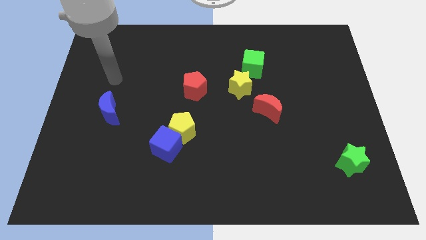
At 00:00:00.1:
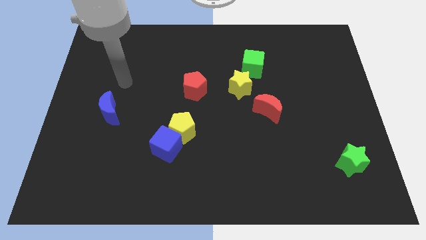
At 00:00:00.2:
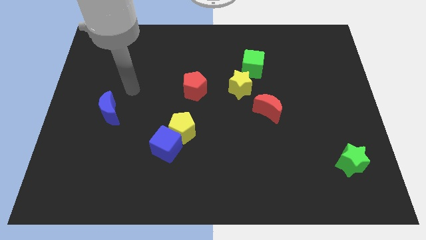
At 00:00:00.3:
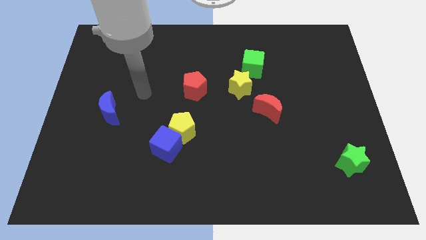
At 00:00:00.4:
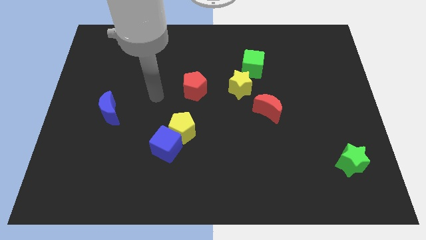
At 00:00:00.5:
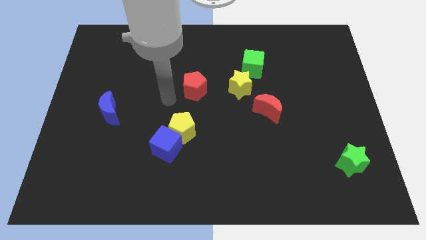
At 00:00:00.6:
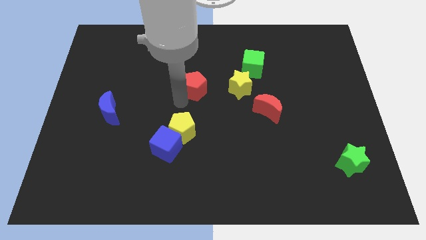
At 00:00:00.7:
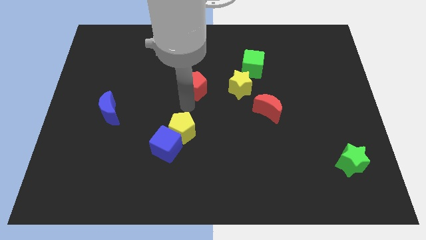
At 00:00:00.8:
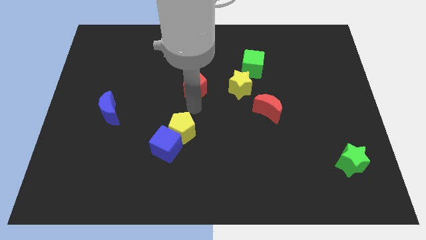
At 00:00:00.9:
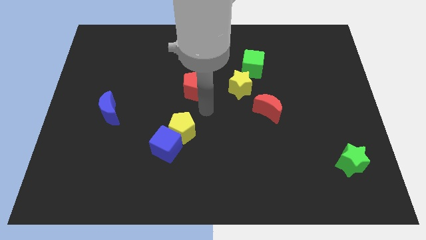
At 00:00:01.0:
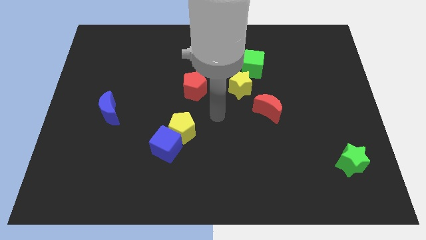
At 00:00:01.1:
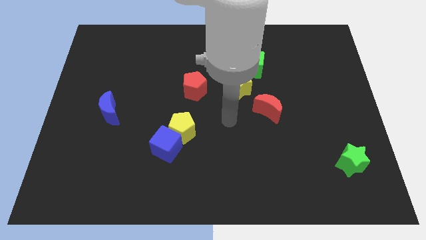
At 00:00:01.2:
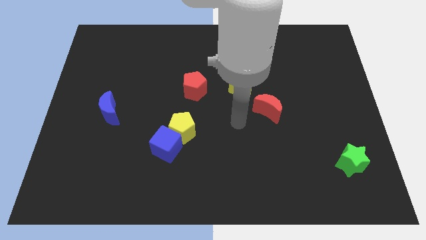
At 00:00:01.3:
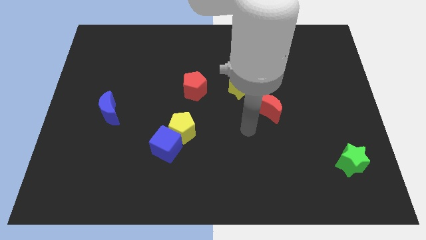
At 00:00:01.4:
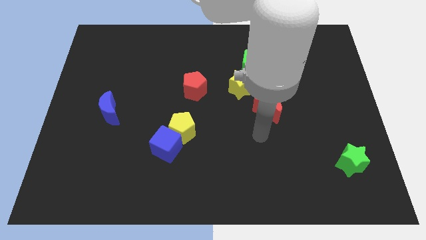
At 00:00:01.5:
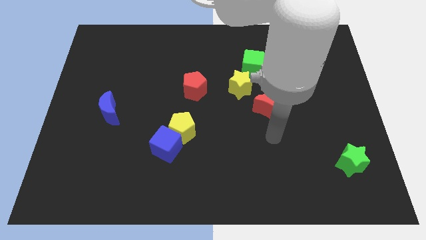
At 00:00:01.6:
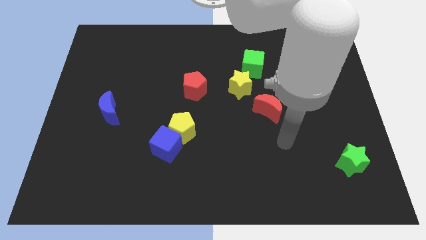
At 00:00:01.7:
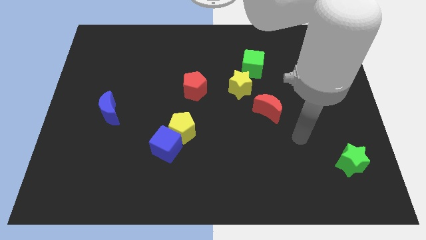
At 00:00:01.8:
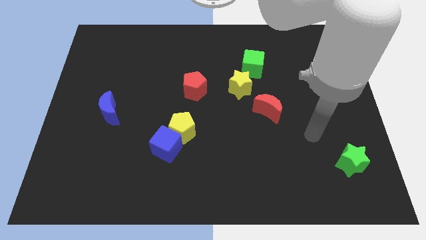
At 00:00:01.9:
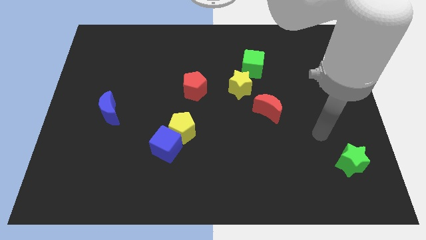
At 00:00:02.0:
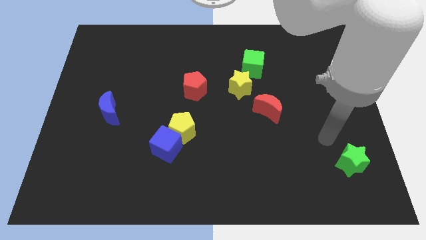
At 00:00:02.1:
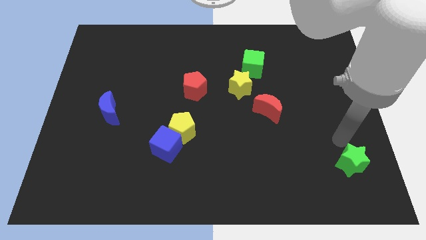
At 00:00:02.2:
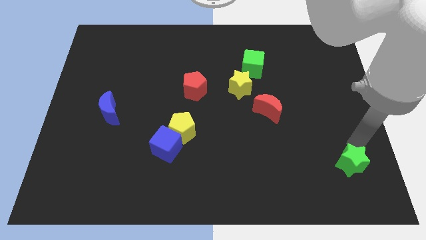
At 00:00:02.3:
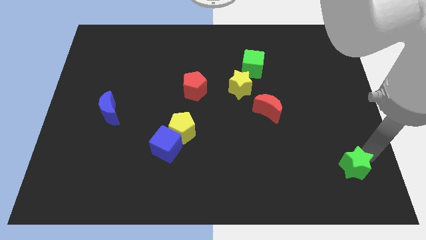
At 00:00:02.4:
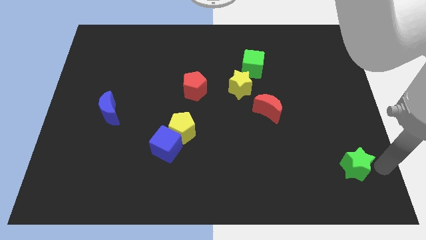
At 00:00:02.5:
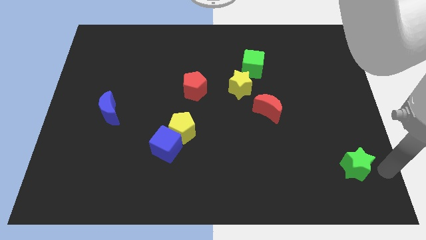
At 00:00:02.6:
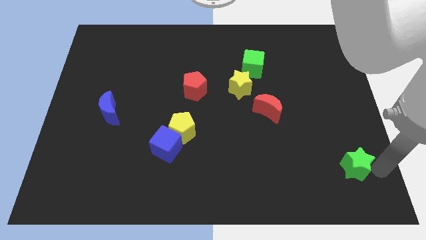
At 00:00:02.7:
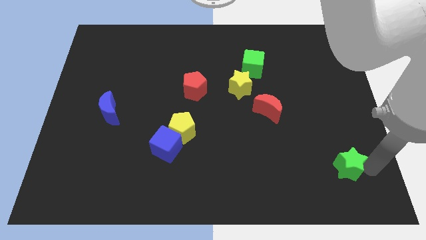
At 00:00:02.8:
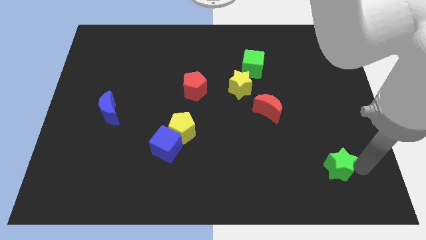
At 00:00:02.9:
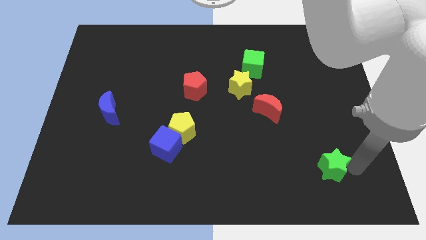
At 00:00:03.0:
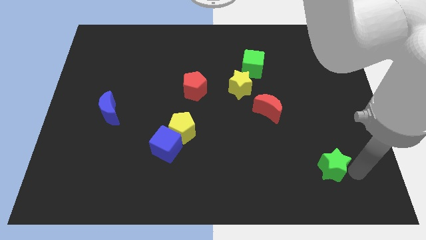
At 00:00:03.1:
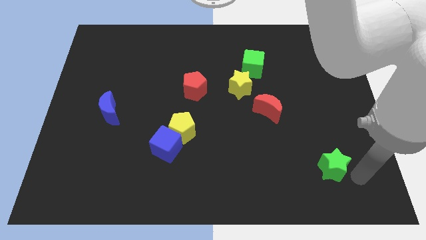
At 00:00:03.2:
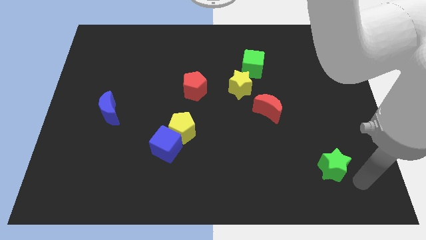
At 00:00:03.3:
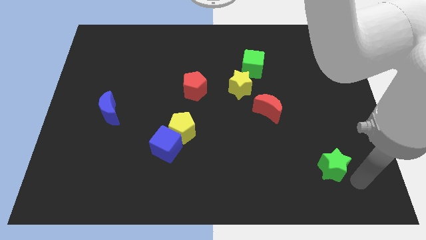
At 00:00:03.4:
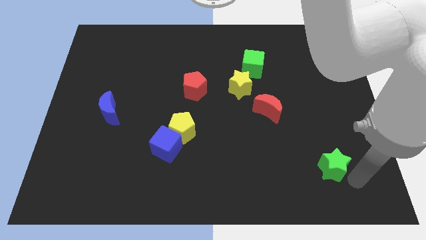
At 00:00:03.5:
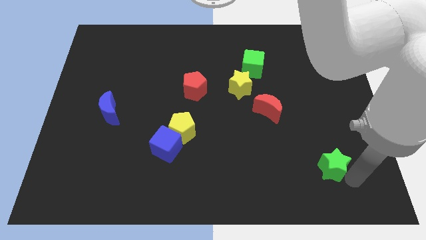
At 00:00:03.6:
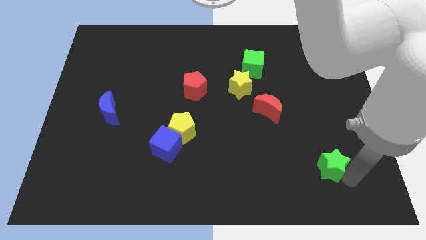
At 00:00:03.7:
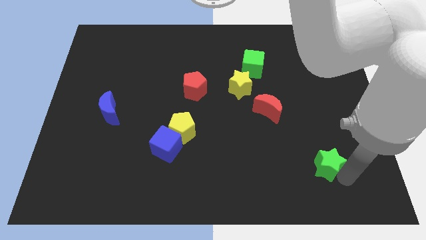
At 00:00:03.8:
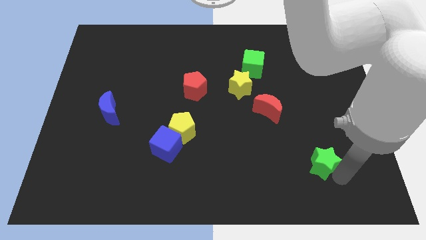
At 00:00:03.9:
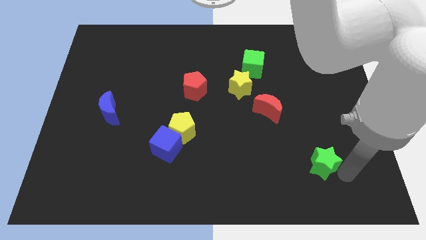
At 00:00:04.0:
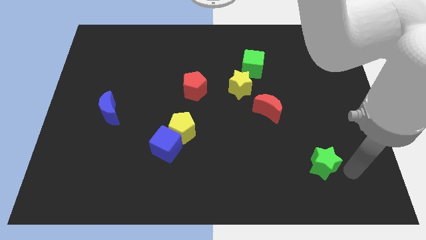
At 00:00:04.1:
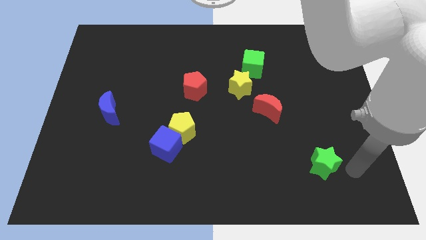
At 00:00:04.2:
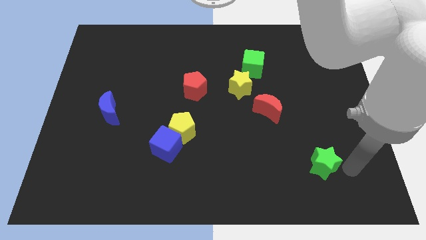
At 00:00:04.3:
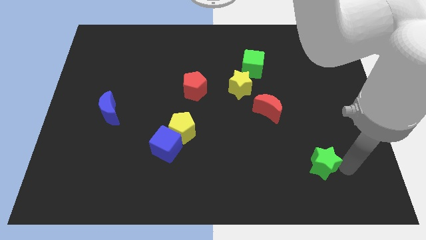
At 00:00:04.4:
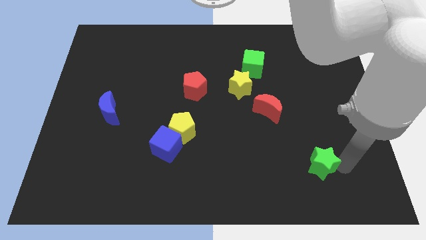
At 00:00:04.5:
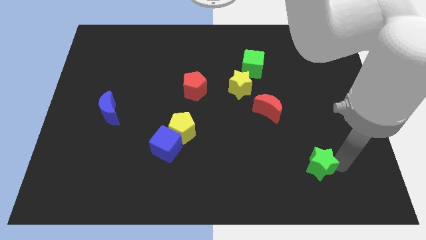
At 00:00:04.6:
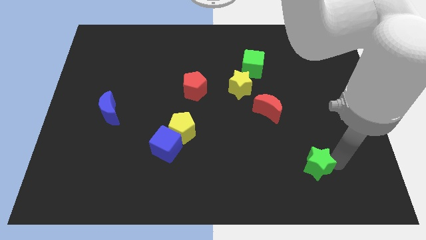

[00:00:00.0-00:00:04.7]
slide the green star to the left a little bit

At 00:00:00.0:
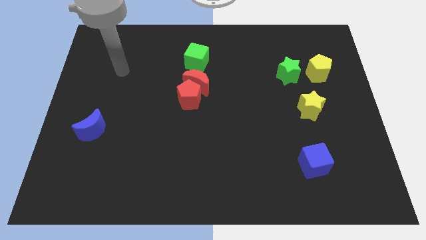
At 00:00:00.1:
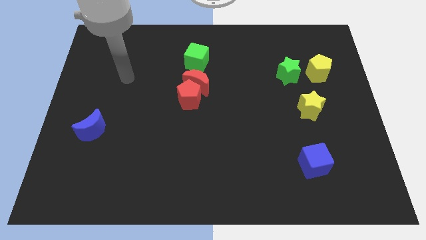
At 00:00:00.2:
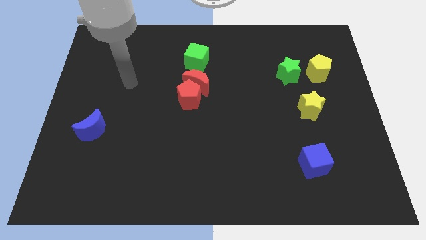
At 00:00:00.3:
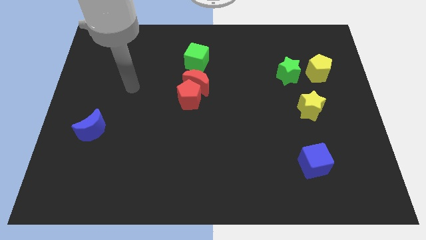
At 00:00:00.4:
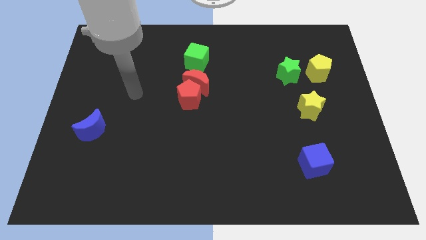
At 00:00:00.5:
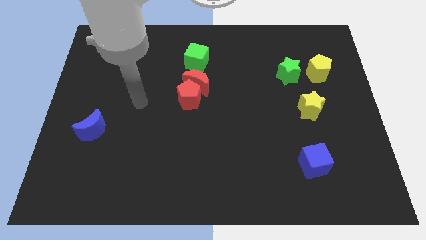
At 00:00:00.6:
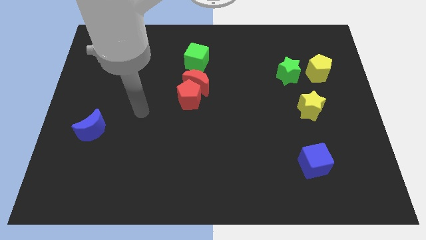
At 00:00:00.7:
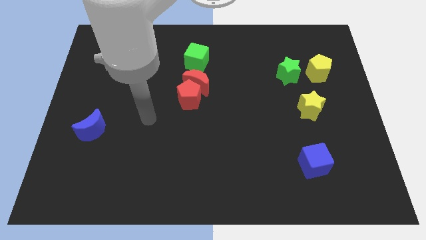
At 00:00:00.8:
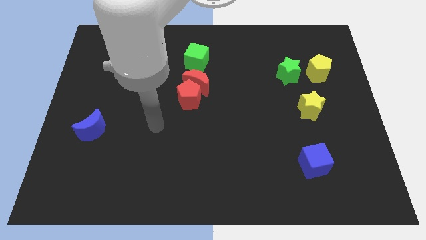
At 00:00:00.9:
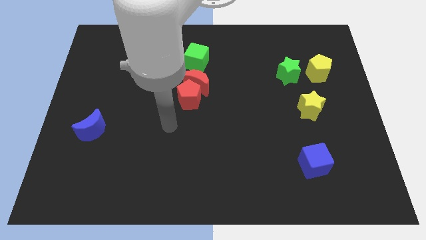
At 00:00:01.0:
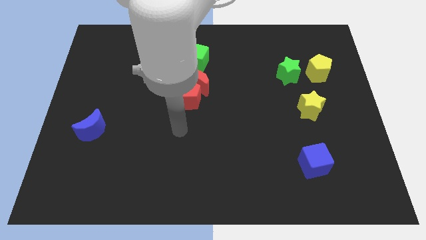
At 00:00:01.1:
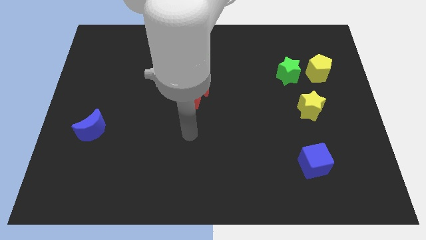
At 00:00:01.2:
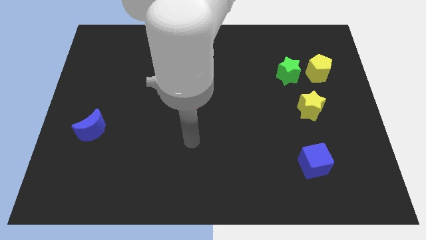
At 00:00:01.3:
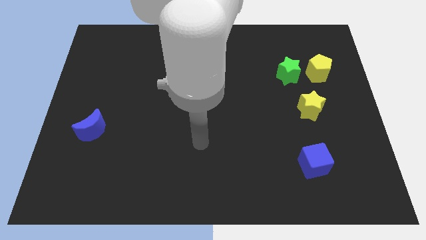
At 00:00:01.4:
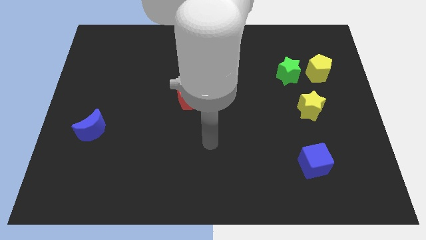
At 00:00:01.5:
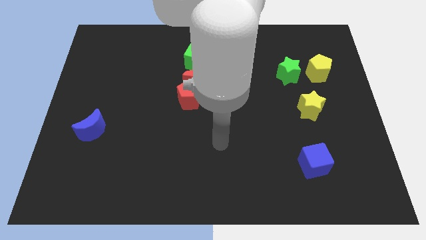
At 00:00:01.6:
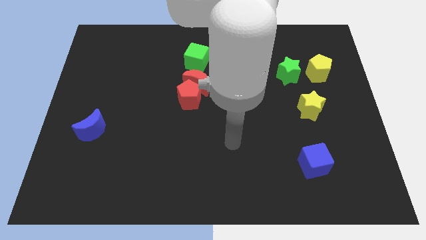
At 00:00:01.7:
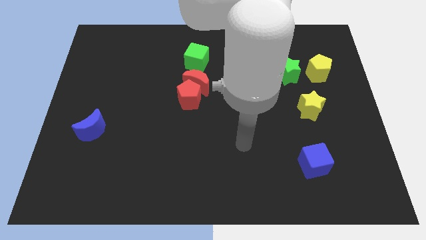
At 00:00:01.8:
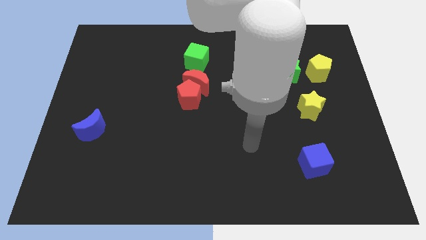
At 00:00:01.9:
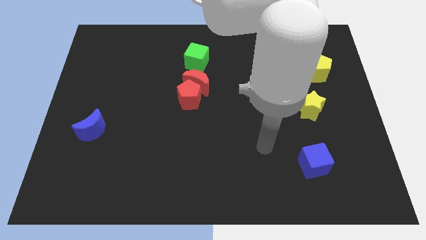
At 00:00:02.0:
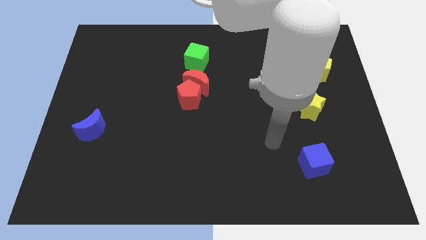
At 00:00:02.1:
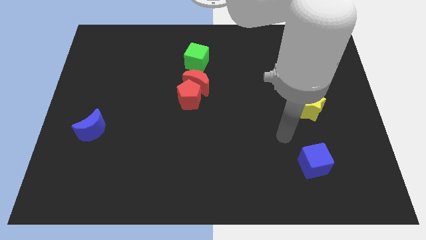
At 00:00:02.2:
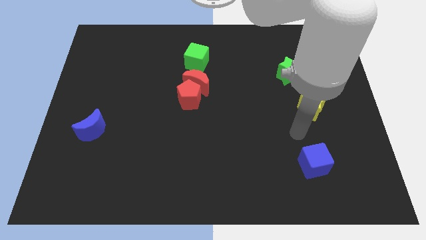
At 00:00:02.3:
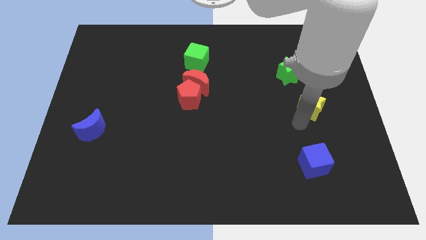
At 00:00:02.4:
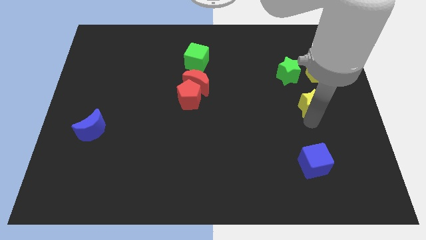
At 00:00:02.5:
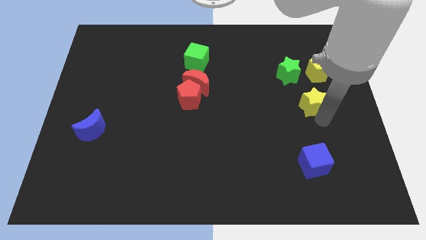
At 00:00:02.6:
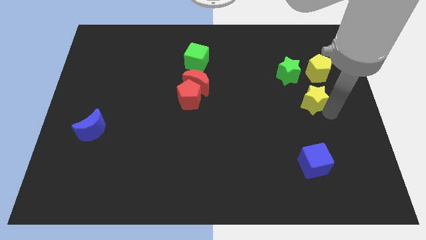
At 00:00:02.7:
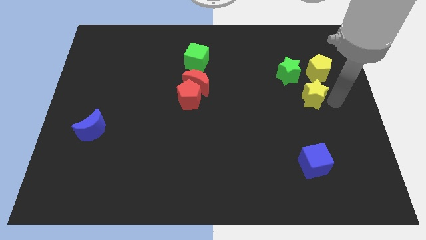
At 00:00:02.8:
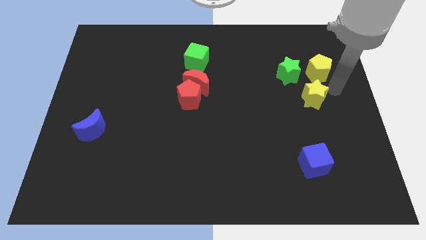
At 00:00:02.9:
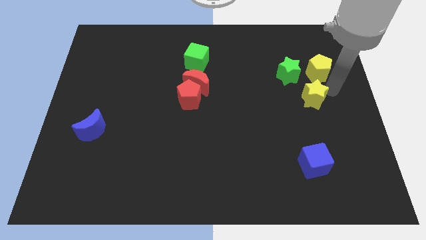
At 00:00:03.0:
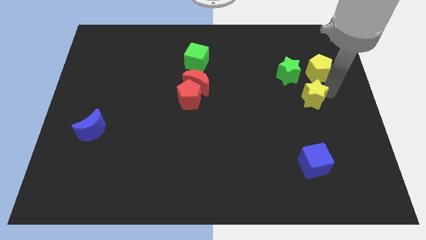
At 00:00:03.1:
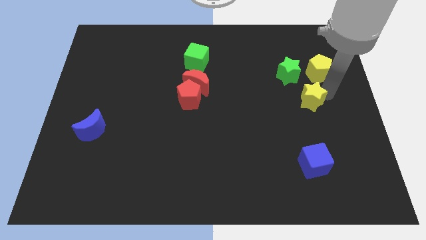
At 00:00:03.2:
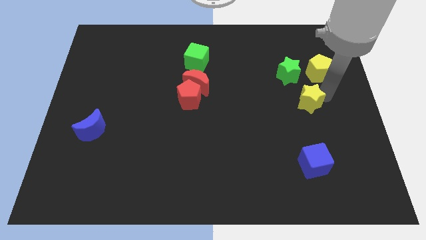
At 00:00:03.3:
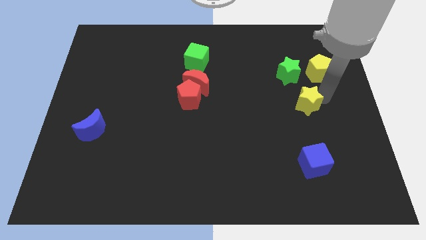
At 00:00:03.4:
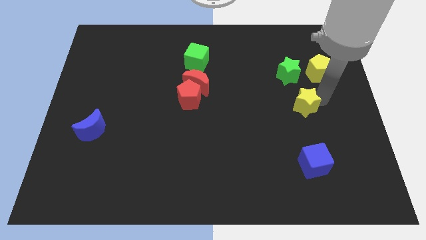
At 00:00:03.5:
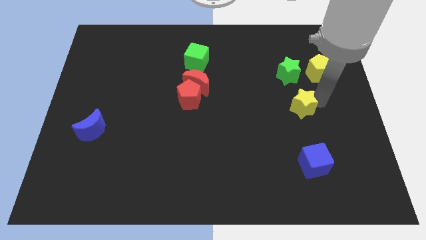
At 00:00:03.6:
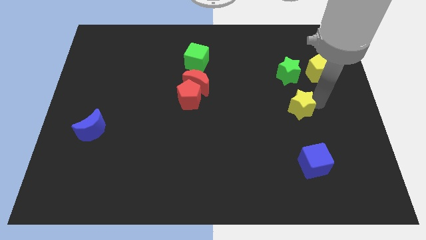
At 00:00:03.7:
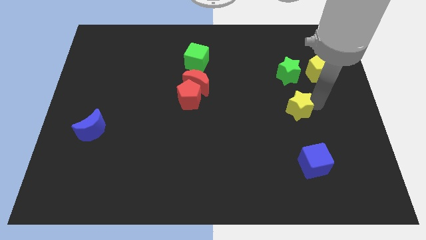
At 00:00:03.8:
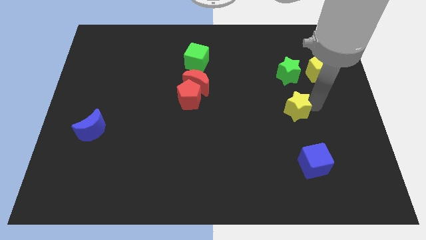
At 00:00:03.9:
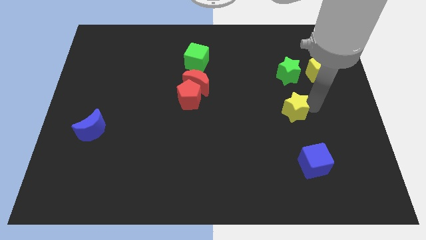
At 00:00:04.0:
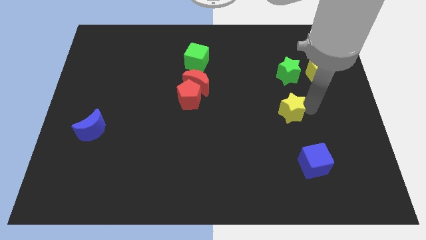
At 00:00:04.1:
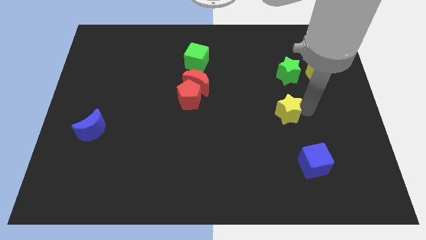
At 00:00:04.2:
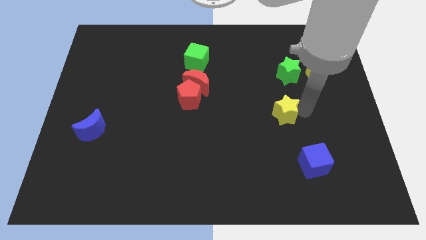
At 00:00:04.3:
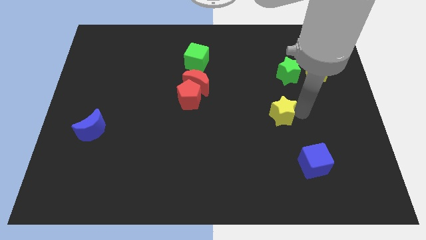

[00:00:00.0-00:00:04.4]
push the yellow star somewhat to the left
